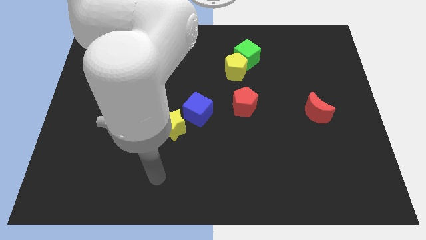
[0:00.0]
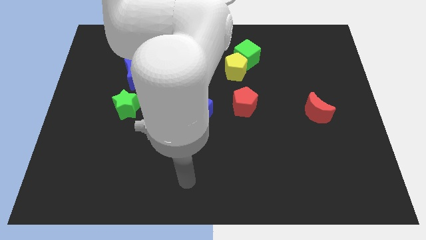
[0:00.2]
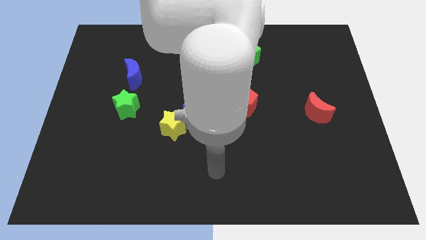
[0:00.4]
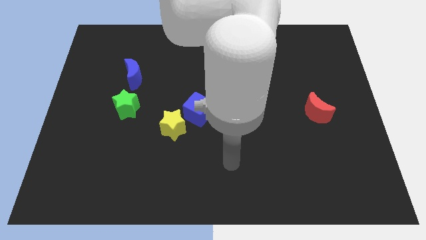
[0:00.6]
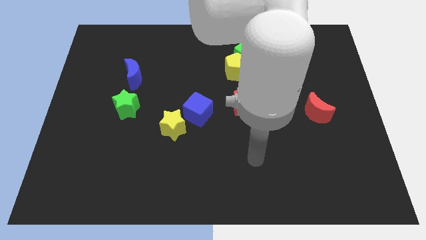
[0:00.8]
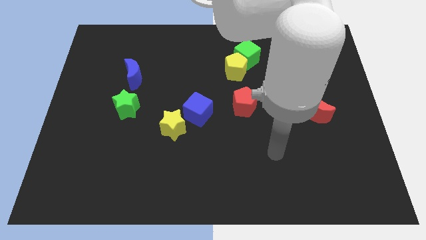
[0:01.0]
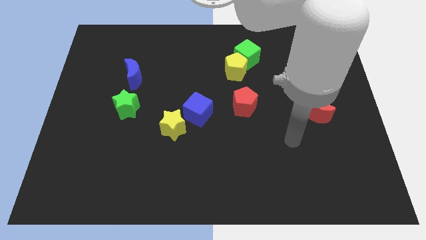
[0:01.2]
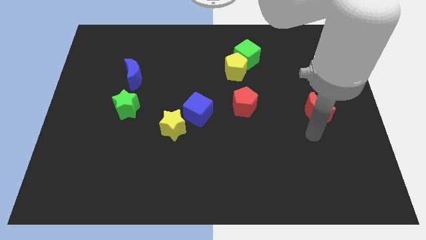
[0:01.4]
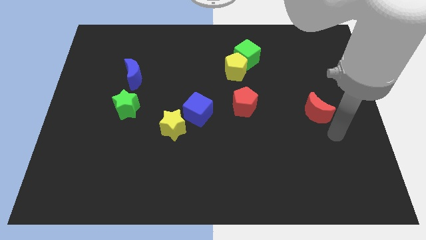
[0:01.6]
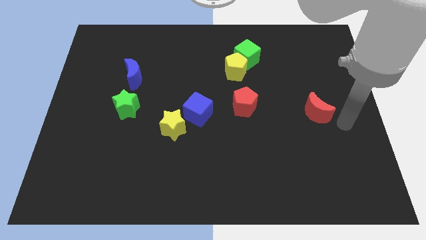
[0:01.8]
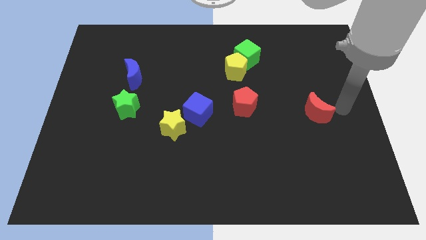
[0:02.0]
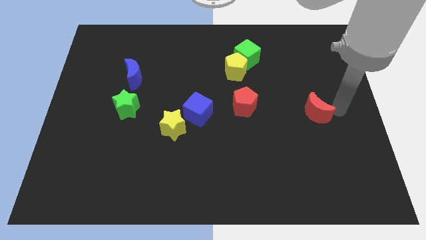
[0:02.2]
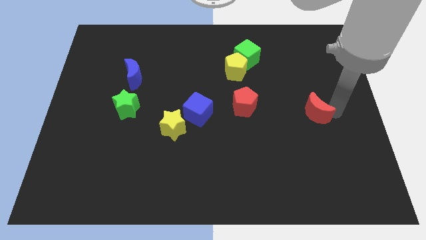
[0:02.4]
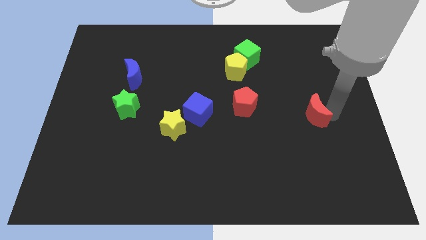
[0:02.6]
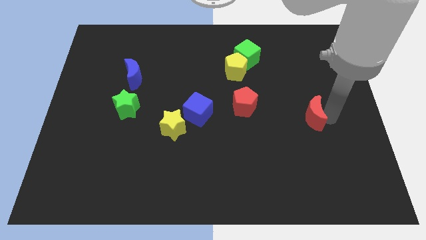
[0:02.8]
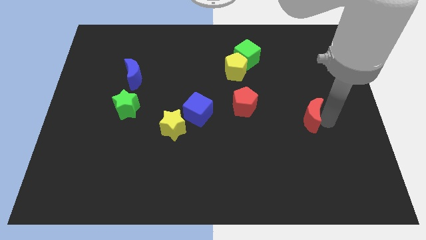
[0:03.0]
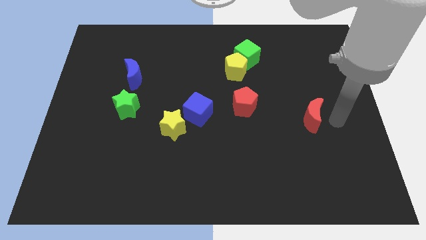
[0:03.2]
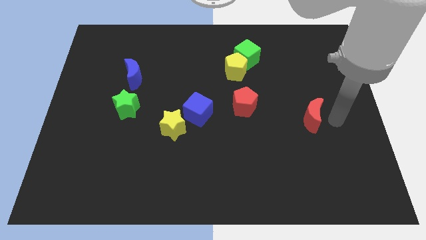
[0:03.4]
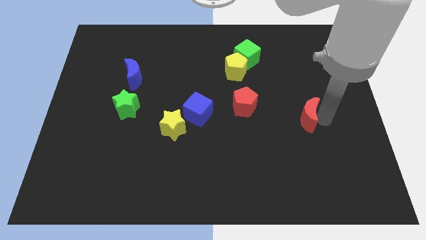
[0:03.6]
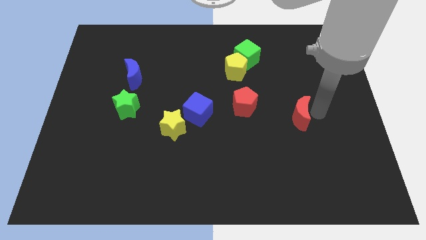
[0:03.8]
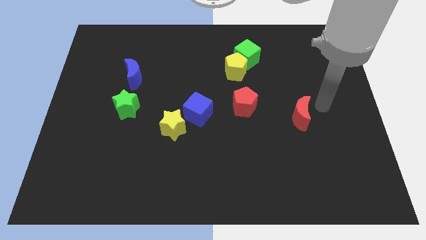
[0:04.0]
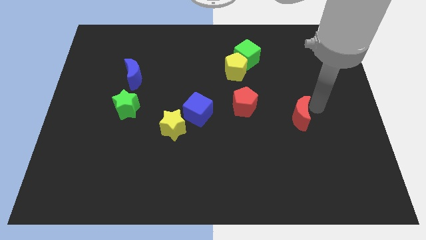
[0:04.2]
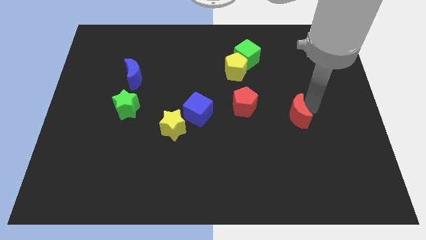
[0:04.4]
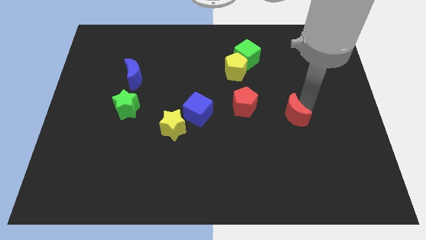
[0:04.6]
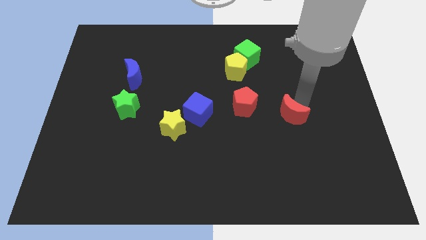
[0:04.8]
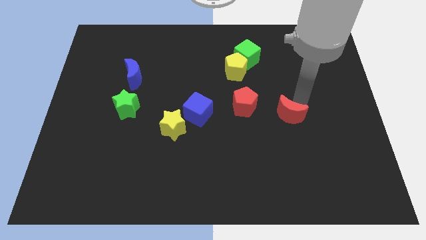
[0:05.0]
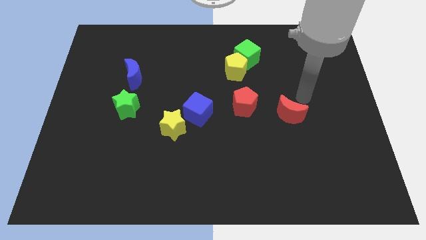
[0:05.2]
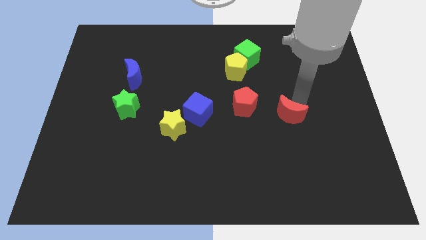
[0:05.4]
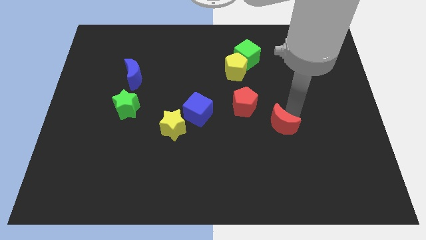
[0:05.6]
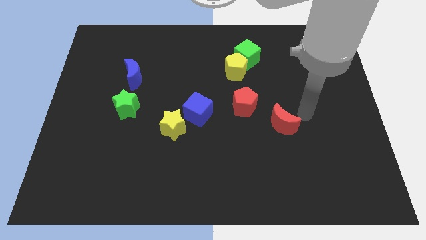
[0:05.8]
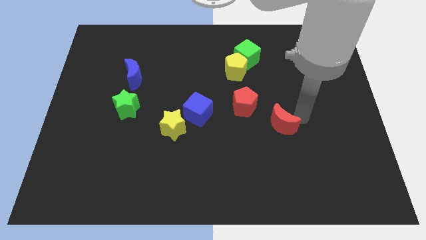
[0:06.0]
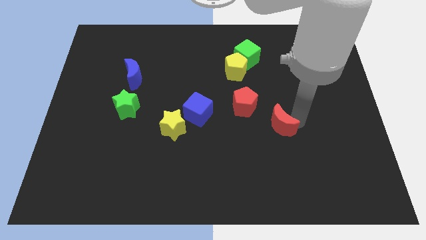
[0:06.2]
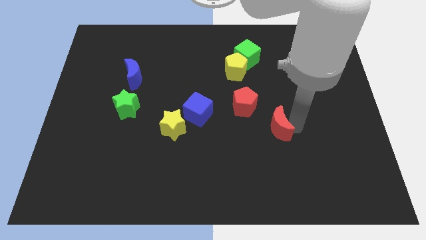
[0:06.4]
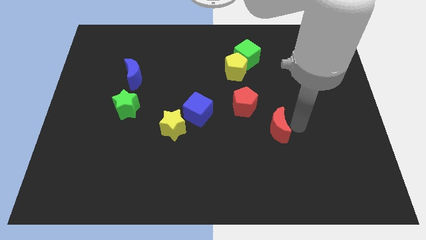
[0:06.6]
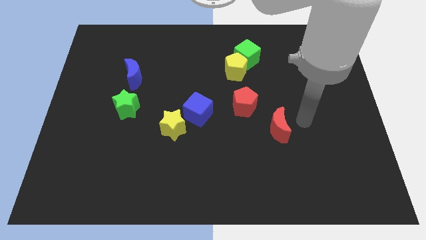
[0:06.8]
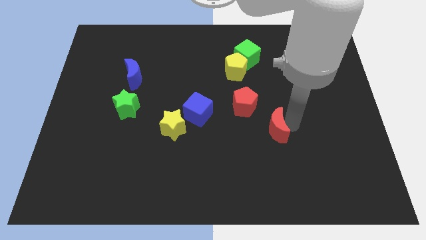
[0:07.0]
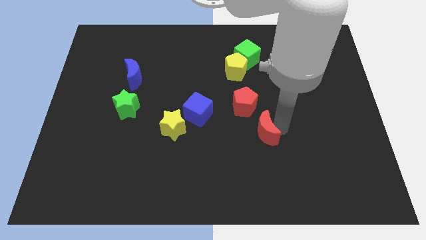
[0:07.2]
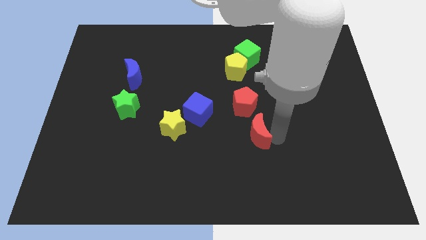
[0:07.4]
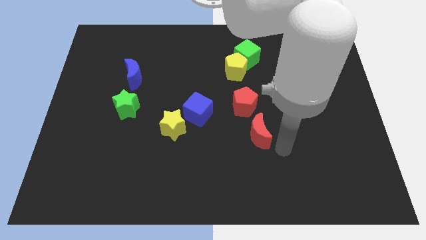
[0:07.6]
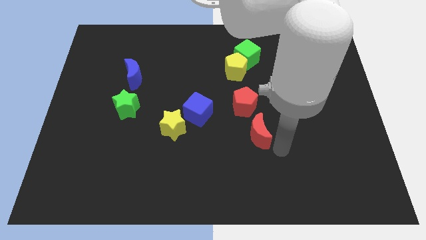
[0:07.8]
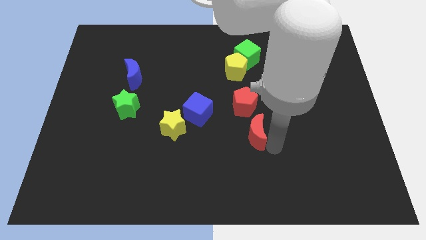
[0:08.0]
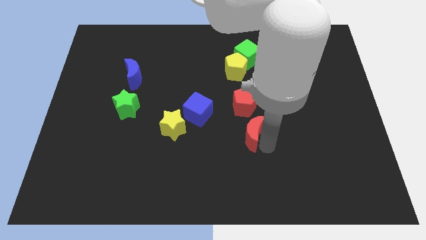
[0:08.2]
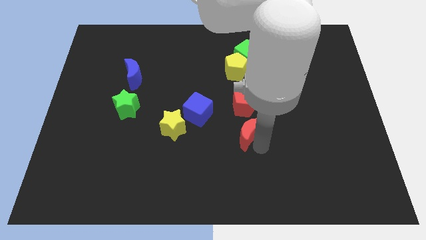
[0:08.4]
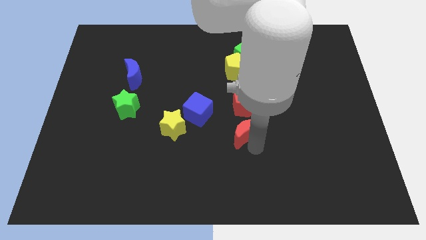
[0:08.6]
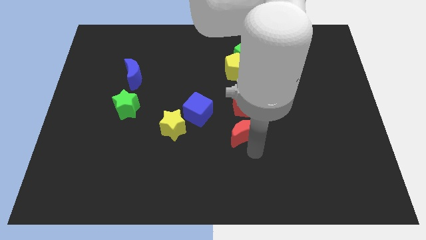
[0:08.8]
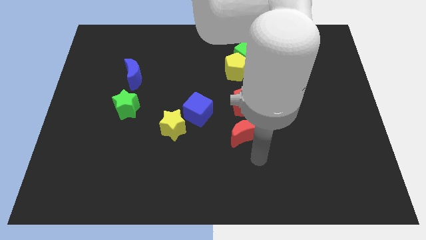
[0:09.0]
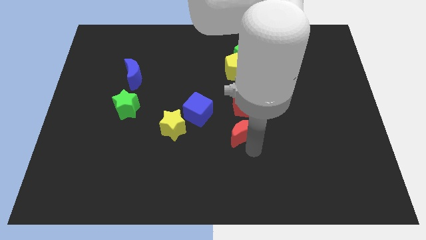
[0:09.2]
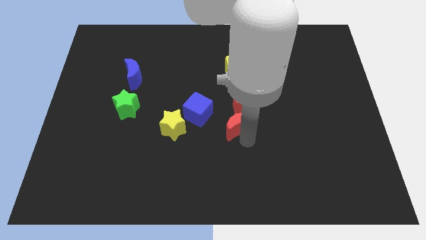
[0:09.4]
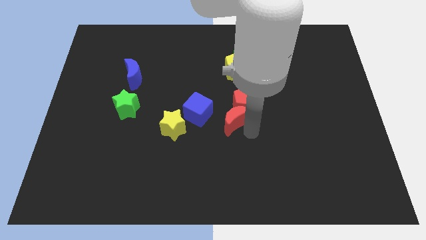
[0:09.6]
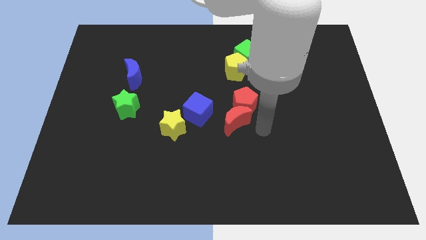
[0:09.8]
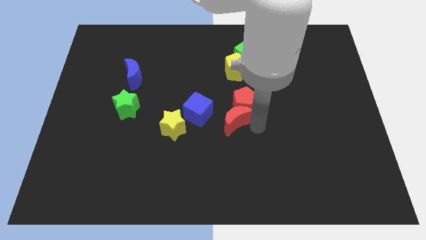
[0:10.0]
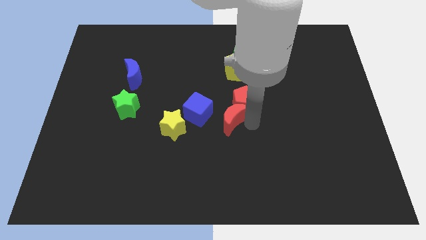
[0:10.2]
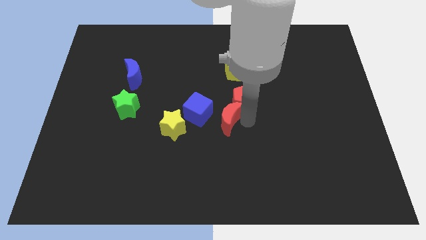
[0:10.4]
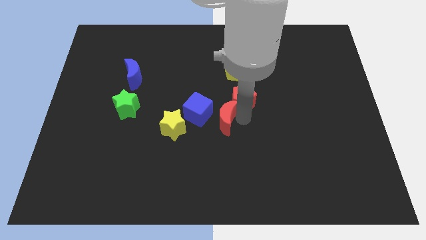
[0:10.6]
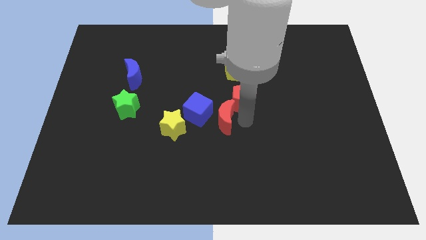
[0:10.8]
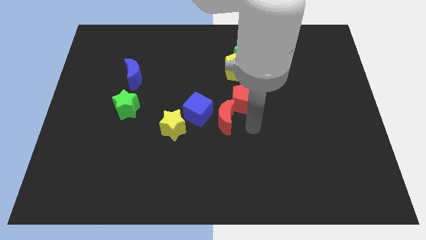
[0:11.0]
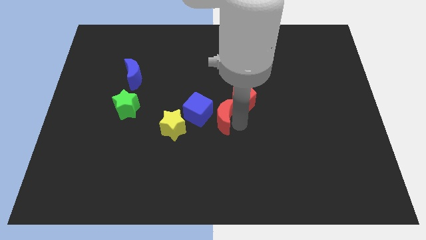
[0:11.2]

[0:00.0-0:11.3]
push the red moon close to the blue cube

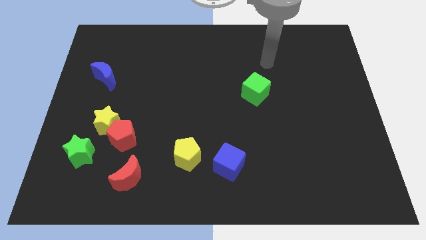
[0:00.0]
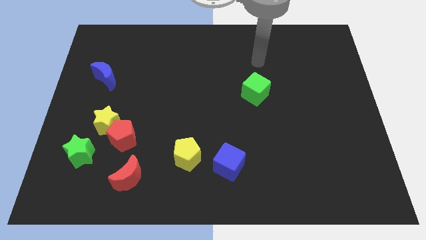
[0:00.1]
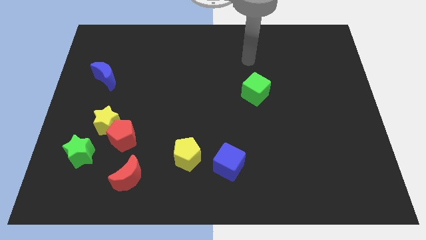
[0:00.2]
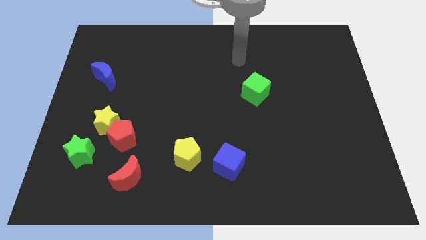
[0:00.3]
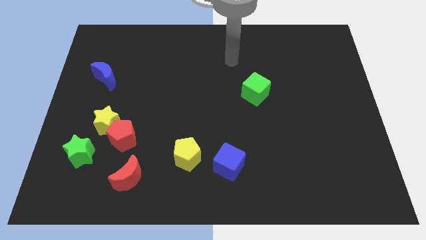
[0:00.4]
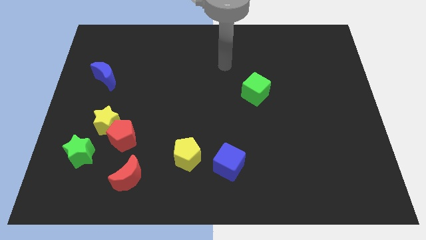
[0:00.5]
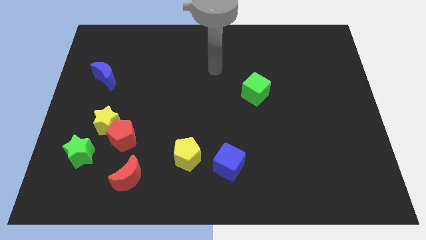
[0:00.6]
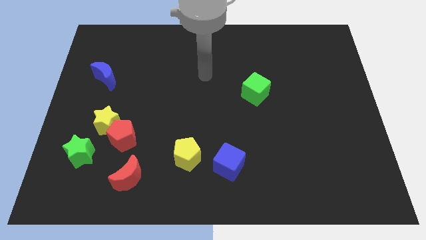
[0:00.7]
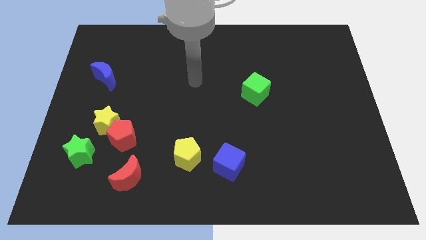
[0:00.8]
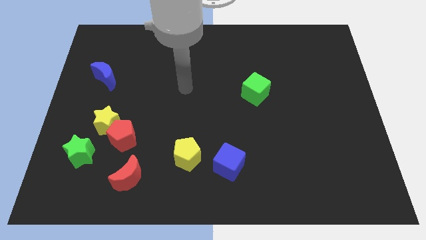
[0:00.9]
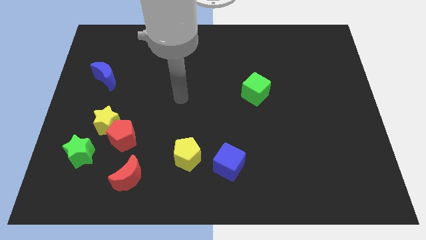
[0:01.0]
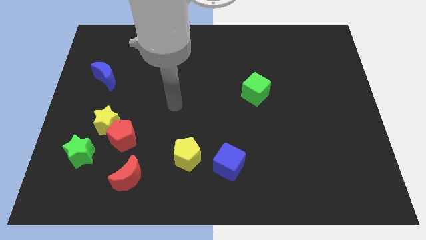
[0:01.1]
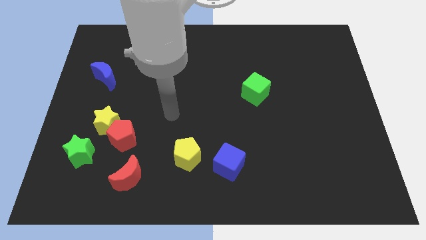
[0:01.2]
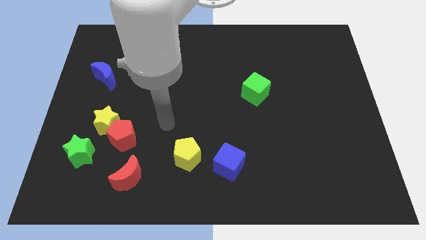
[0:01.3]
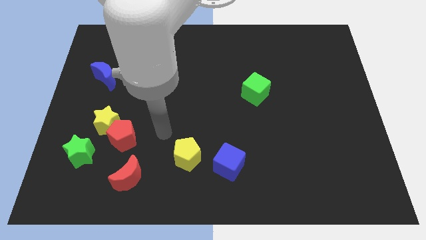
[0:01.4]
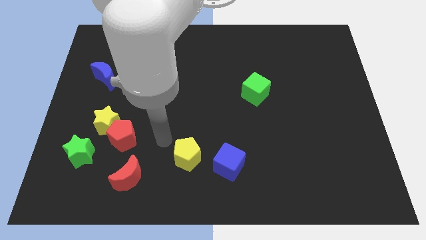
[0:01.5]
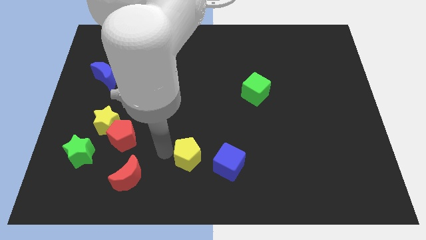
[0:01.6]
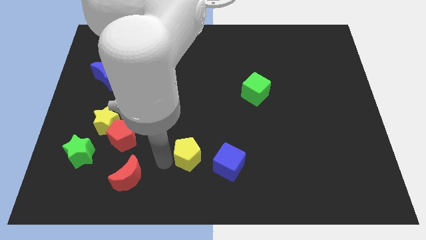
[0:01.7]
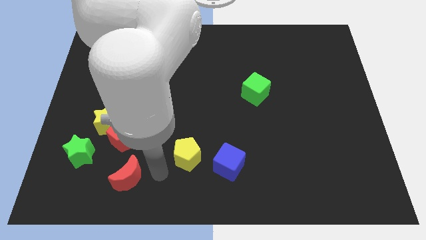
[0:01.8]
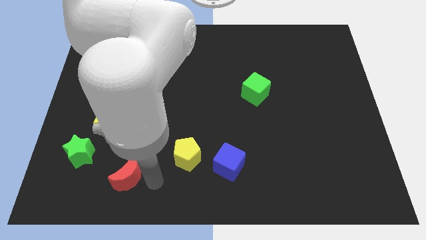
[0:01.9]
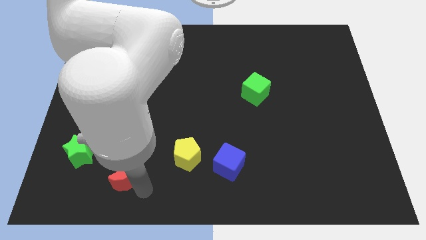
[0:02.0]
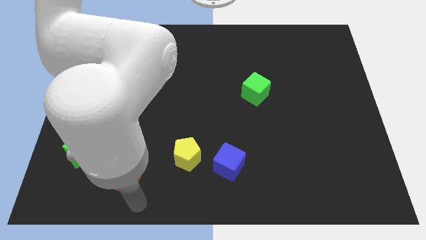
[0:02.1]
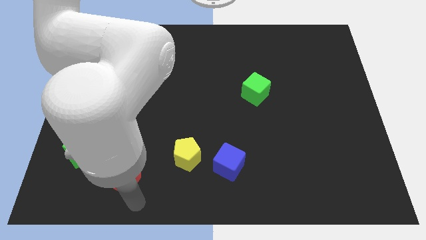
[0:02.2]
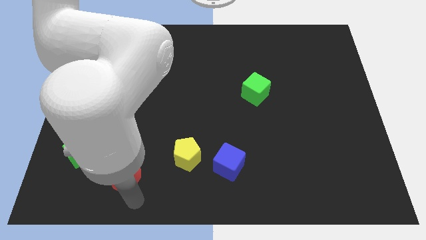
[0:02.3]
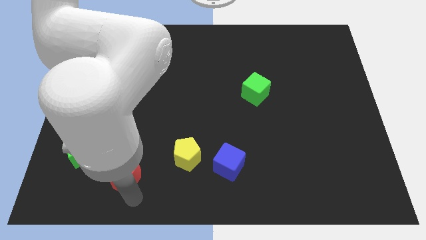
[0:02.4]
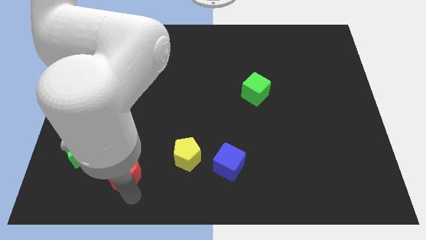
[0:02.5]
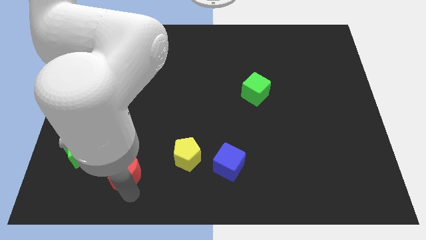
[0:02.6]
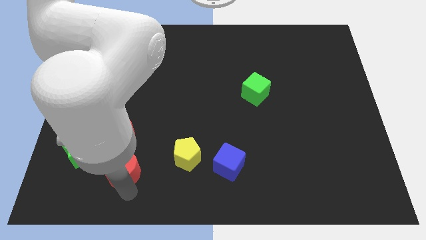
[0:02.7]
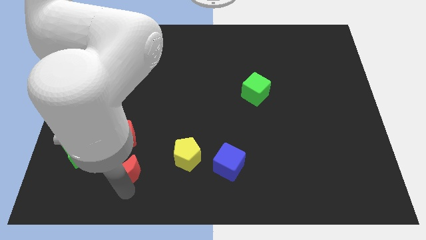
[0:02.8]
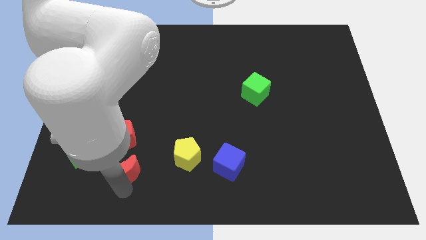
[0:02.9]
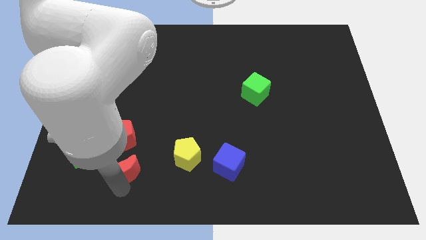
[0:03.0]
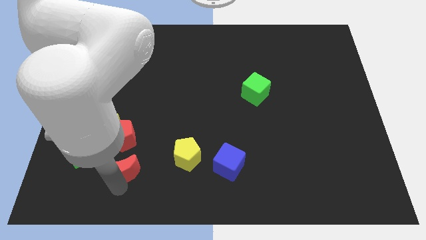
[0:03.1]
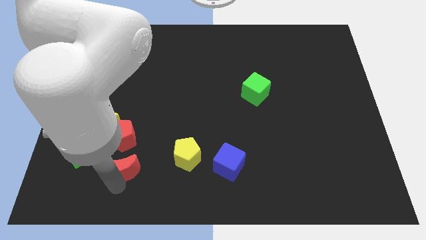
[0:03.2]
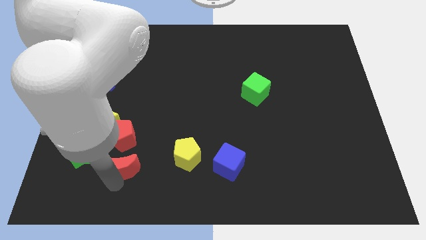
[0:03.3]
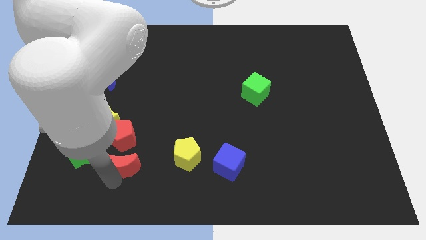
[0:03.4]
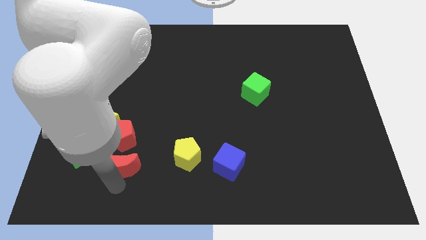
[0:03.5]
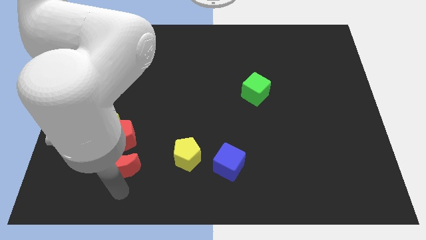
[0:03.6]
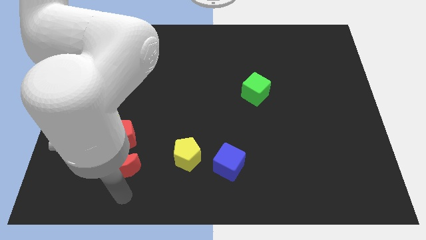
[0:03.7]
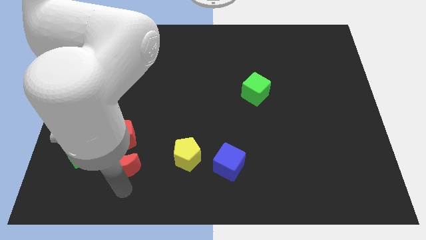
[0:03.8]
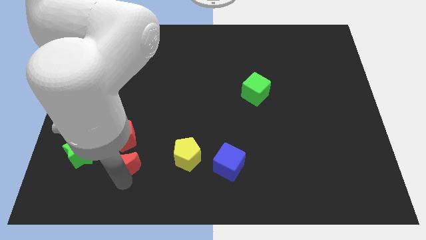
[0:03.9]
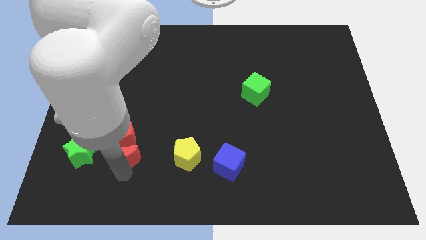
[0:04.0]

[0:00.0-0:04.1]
slide the red moon towards the red pentagon
